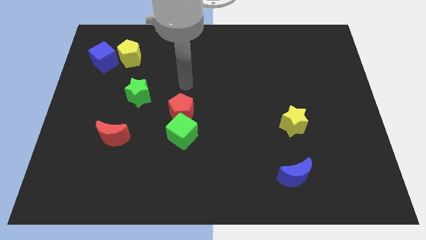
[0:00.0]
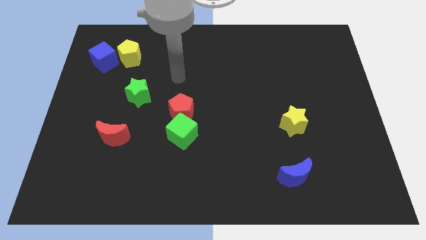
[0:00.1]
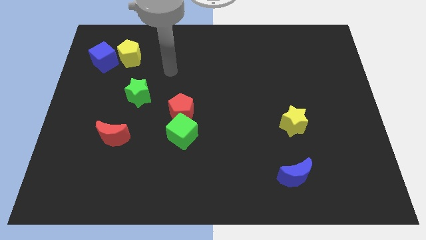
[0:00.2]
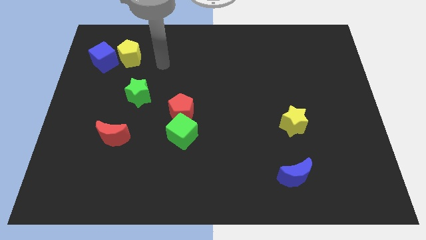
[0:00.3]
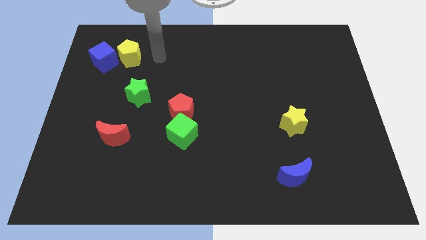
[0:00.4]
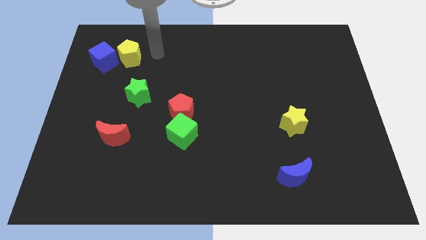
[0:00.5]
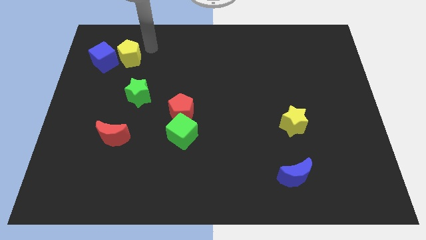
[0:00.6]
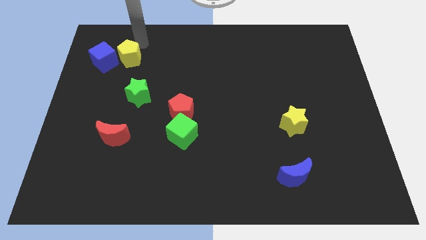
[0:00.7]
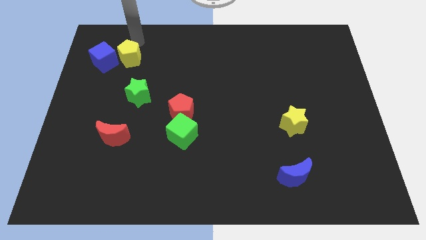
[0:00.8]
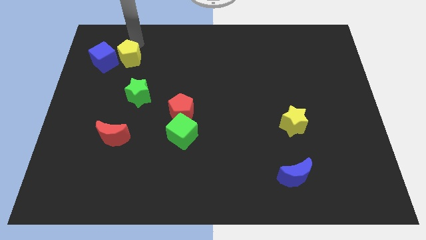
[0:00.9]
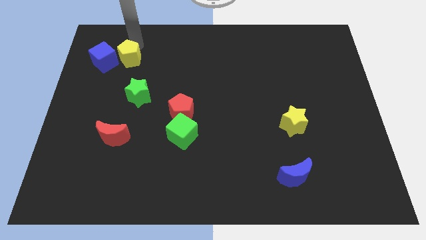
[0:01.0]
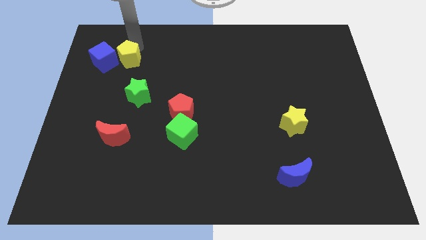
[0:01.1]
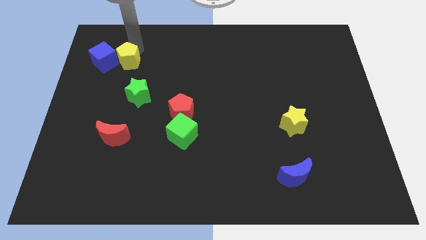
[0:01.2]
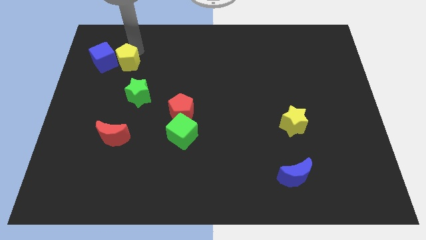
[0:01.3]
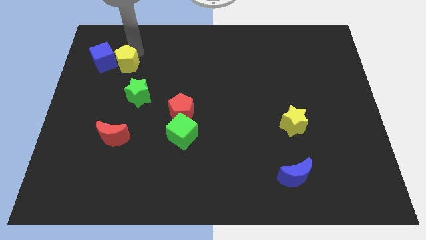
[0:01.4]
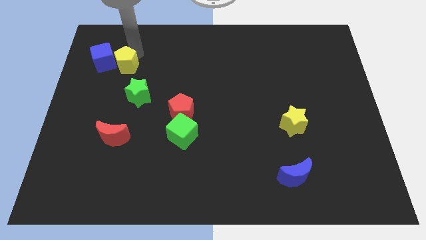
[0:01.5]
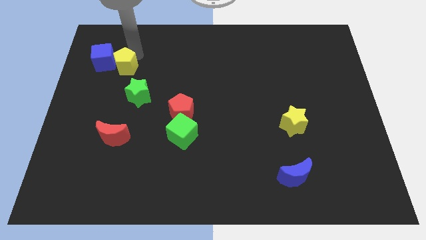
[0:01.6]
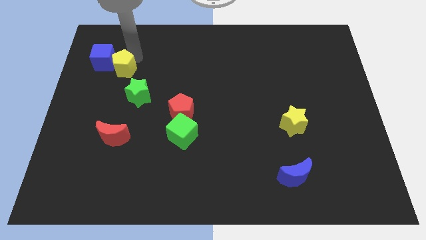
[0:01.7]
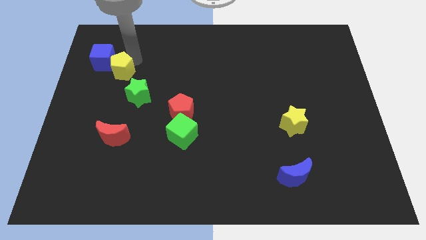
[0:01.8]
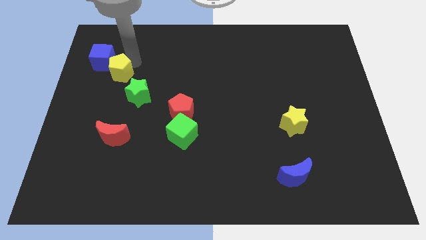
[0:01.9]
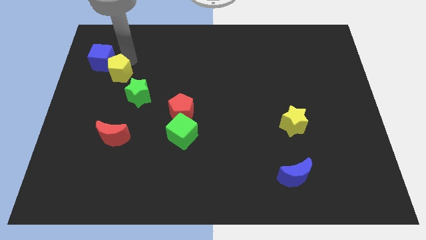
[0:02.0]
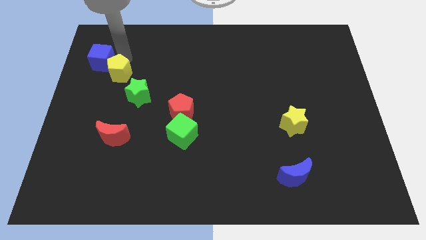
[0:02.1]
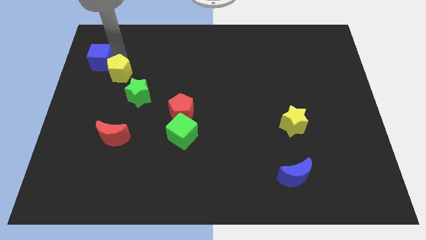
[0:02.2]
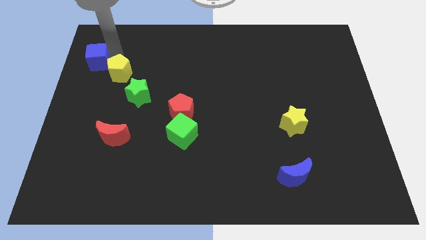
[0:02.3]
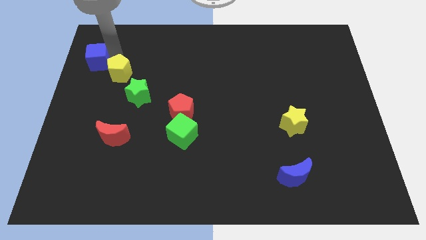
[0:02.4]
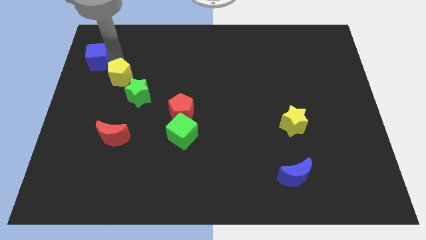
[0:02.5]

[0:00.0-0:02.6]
move the yellow pentagon a little bit downwards

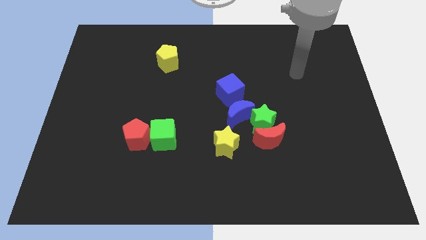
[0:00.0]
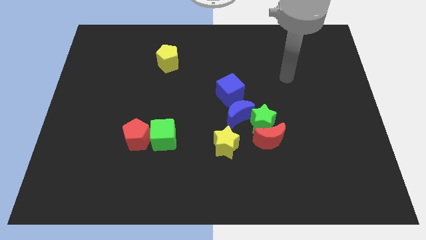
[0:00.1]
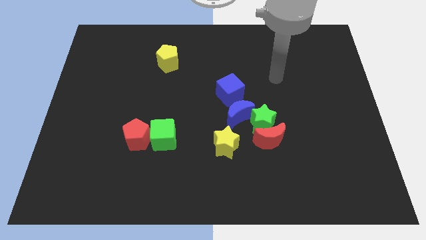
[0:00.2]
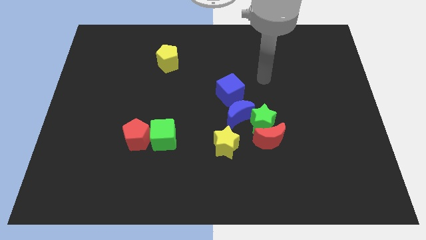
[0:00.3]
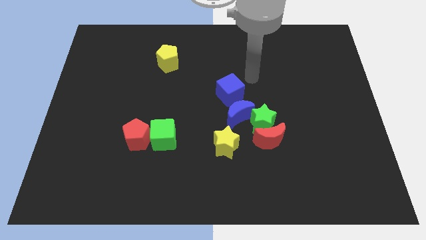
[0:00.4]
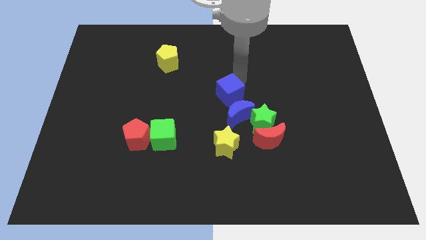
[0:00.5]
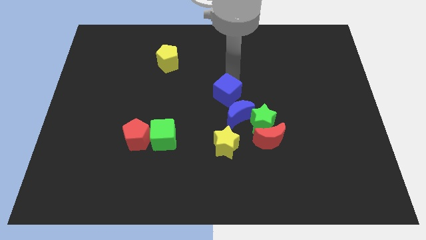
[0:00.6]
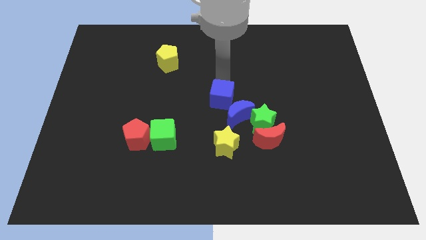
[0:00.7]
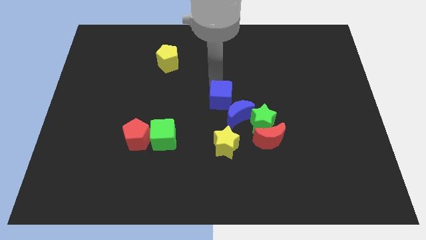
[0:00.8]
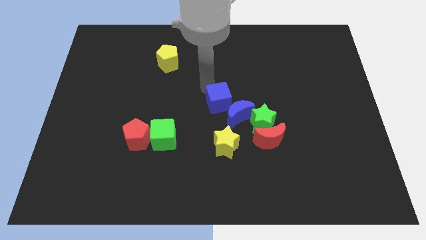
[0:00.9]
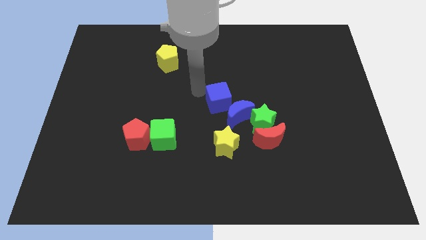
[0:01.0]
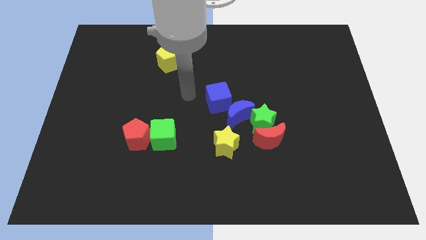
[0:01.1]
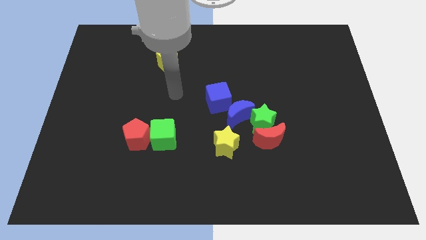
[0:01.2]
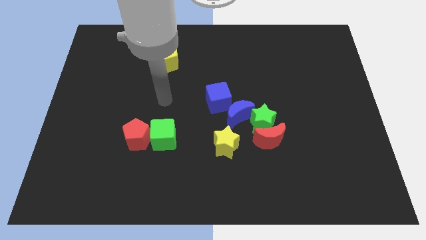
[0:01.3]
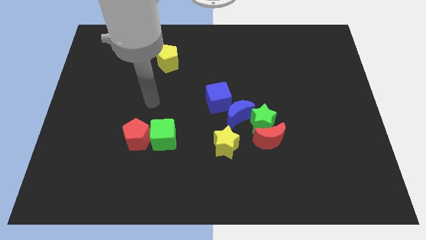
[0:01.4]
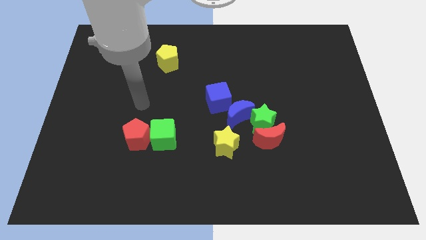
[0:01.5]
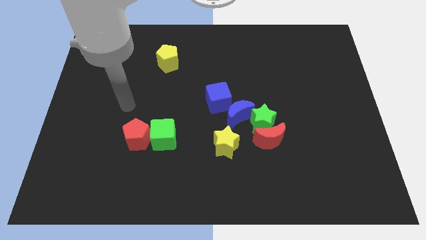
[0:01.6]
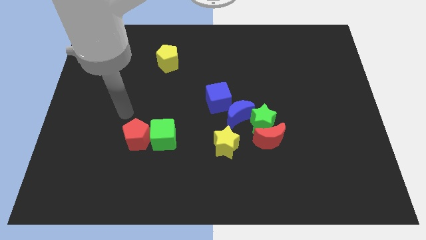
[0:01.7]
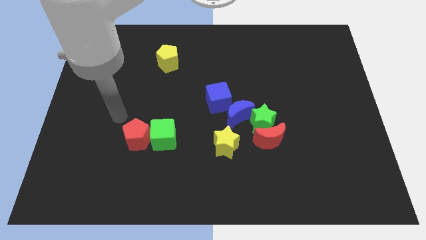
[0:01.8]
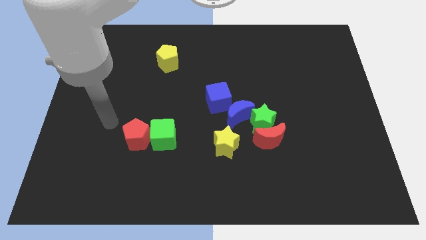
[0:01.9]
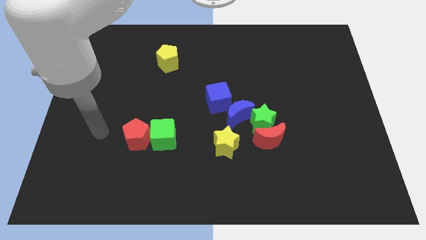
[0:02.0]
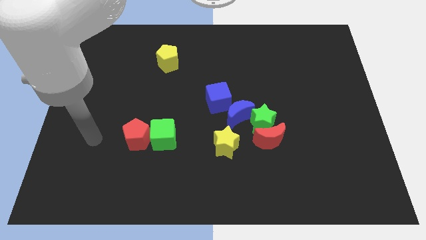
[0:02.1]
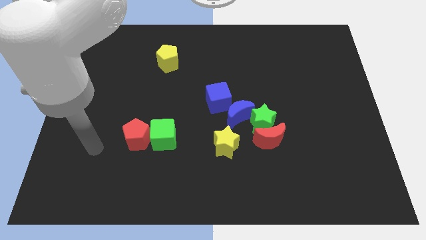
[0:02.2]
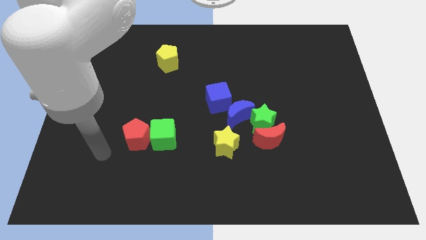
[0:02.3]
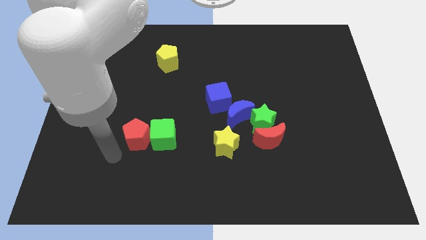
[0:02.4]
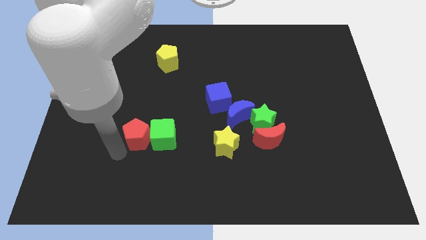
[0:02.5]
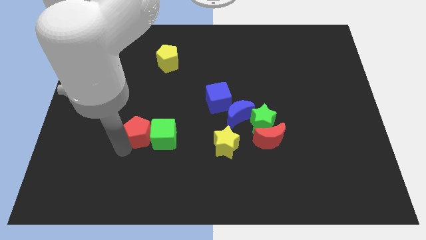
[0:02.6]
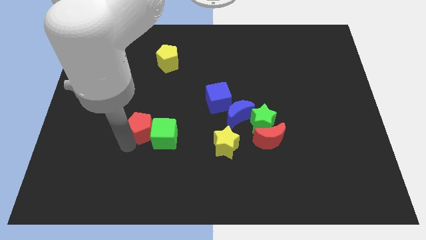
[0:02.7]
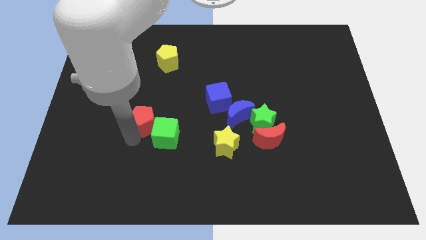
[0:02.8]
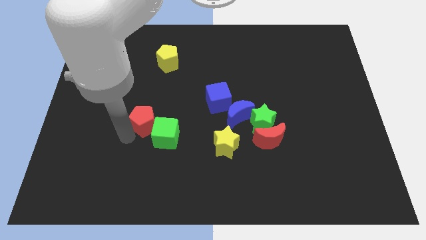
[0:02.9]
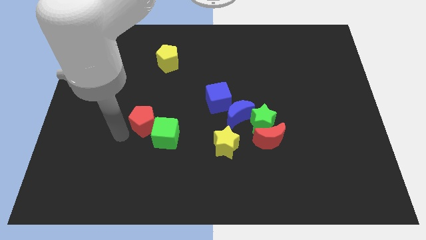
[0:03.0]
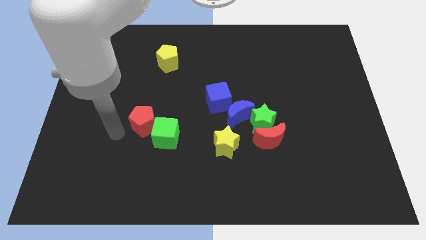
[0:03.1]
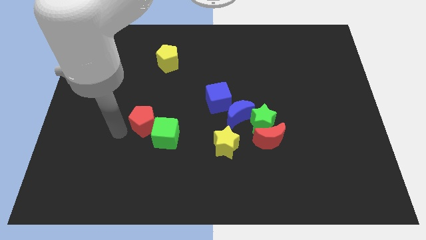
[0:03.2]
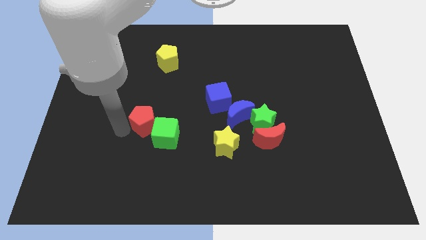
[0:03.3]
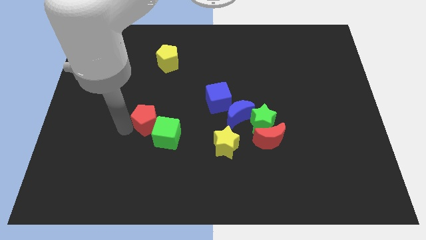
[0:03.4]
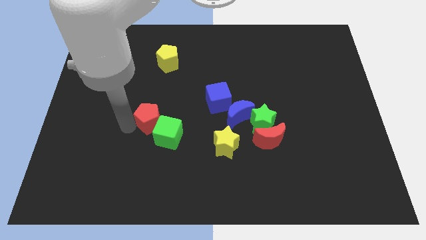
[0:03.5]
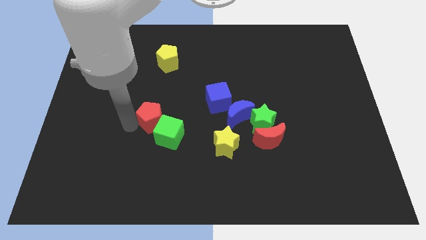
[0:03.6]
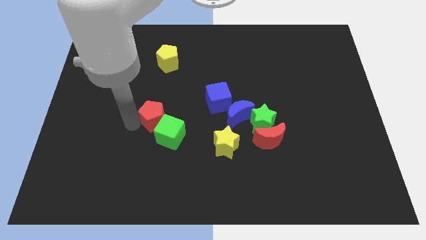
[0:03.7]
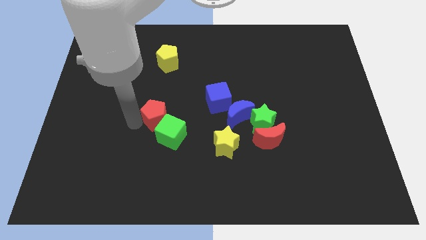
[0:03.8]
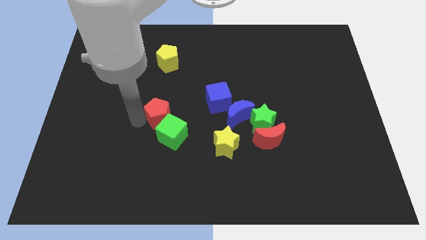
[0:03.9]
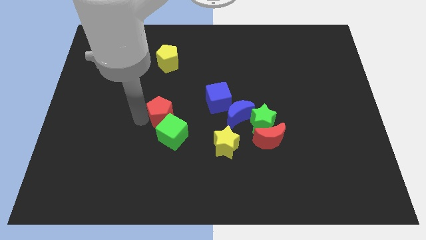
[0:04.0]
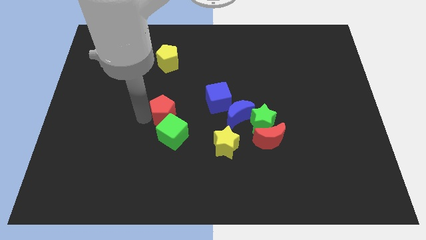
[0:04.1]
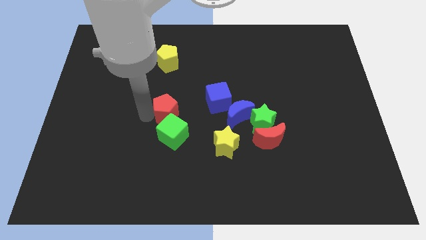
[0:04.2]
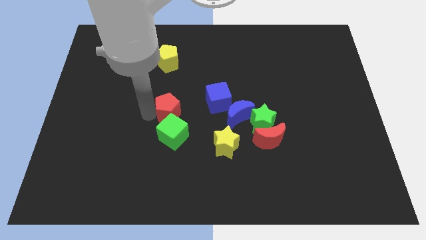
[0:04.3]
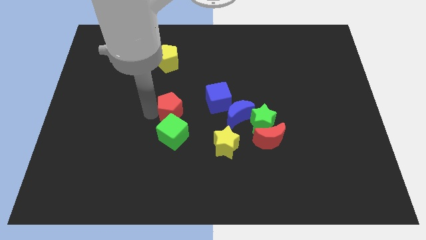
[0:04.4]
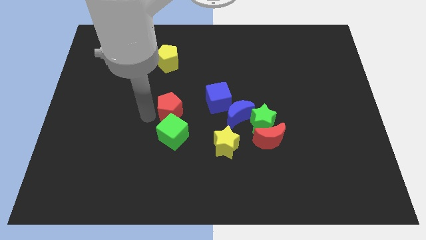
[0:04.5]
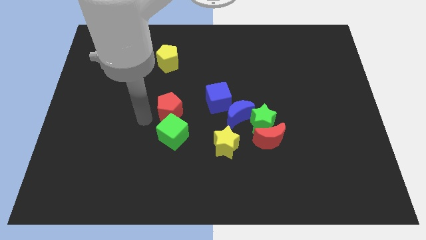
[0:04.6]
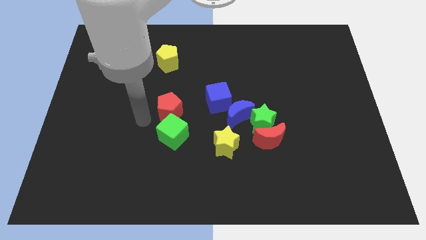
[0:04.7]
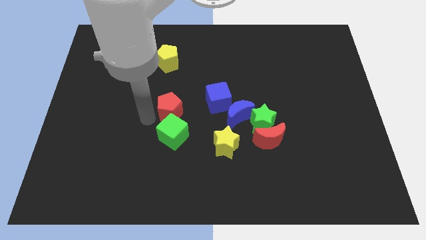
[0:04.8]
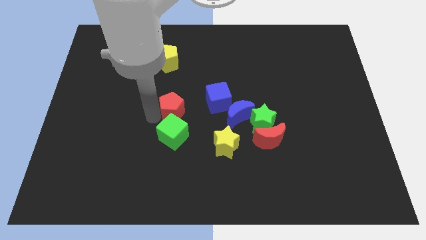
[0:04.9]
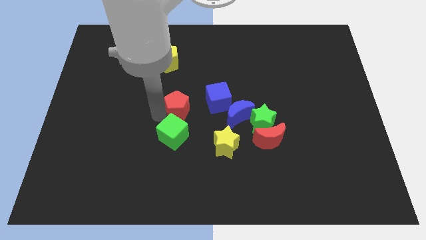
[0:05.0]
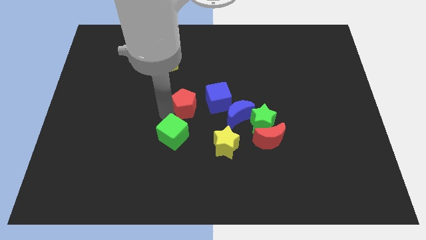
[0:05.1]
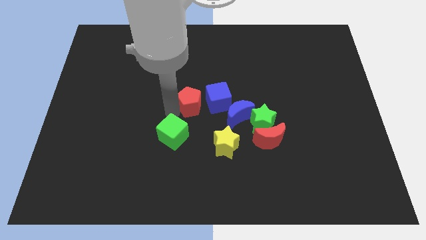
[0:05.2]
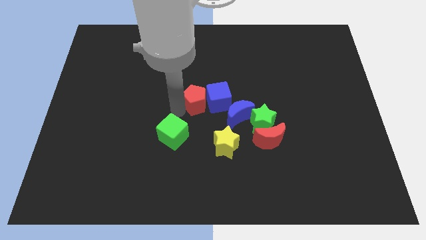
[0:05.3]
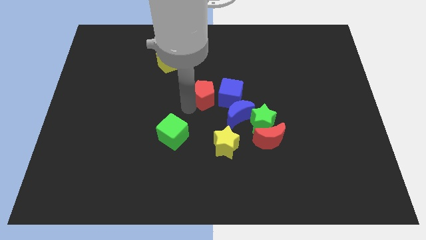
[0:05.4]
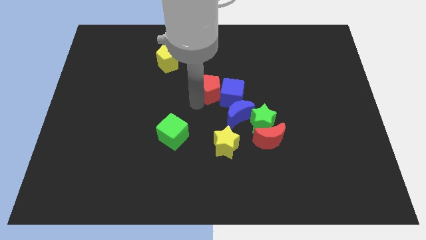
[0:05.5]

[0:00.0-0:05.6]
move the red pentagon upwards and to the right diagonally
